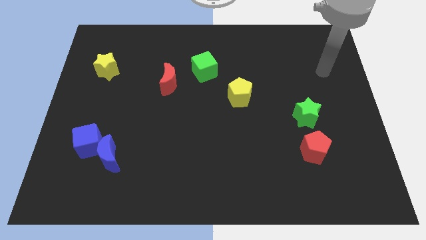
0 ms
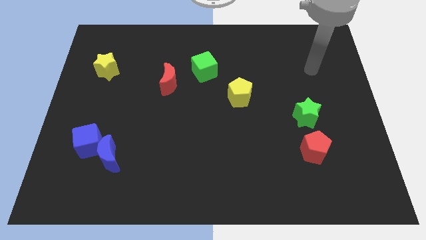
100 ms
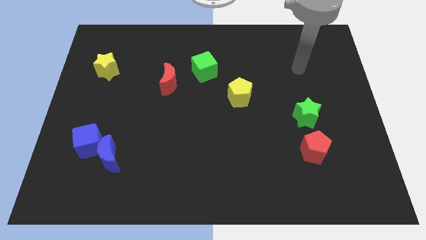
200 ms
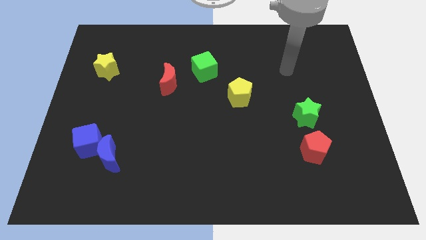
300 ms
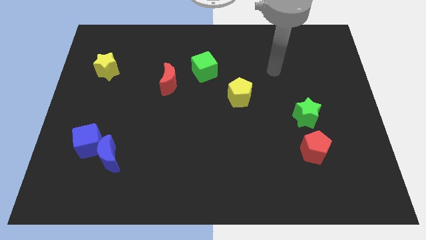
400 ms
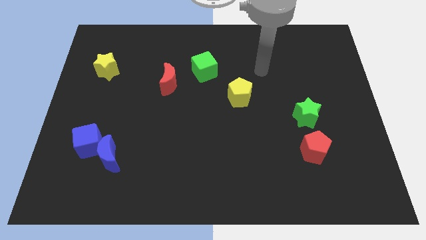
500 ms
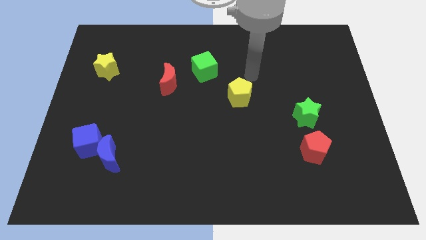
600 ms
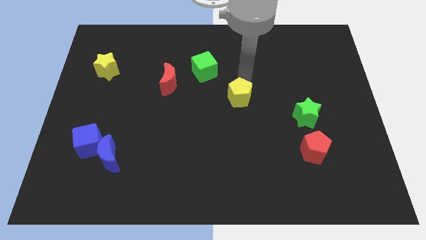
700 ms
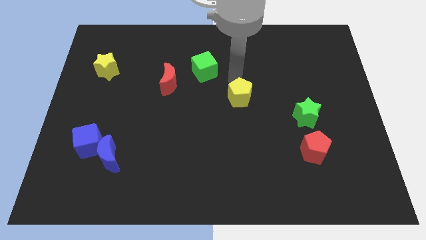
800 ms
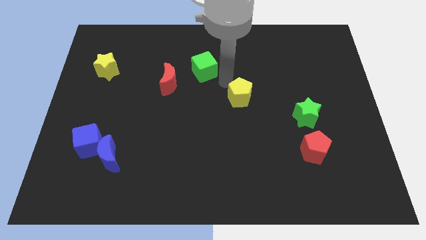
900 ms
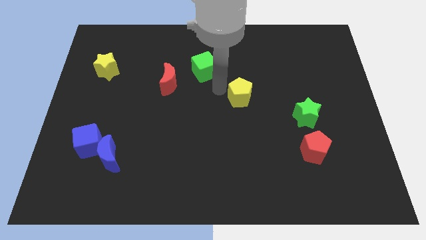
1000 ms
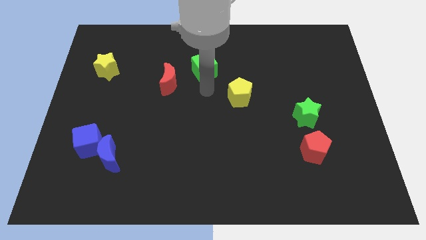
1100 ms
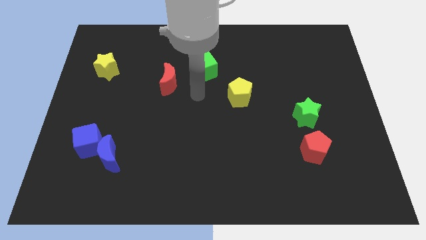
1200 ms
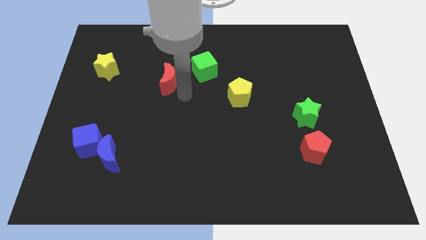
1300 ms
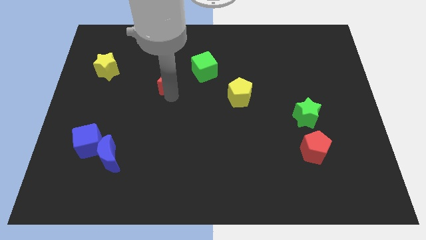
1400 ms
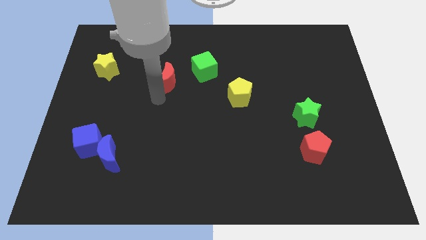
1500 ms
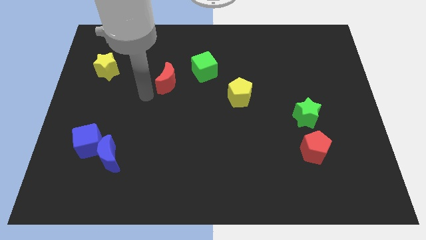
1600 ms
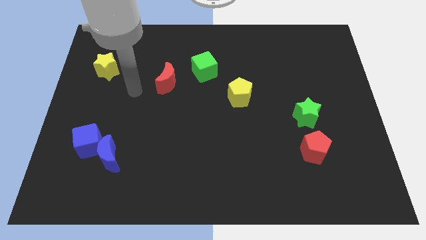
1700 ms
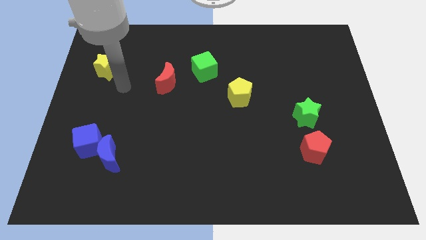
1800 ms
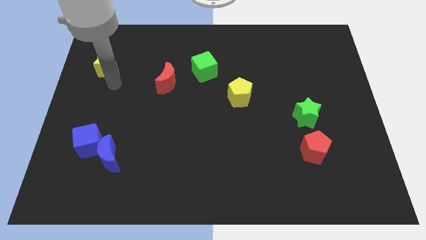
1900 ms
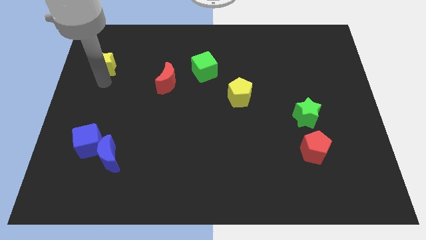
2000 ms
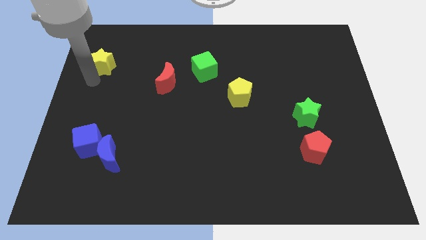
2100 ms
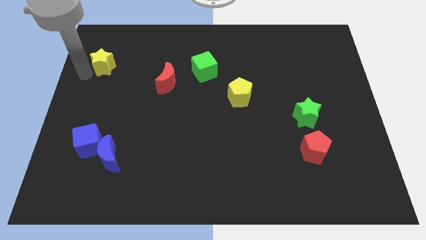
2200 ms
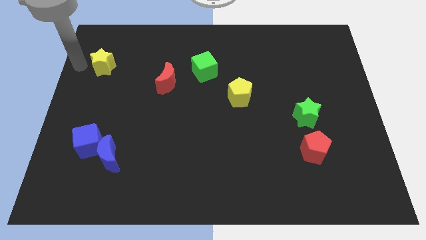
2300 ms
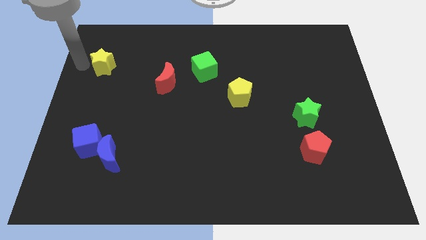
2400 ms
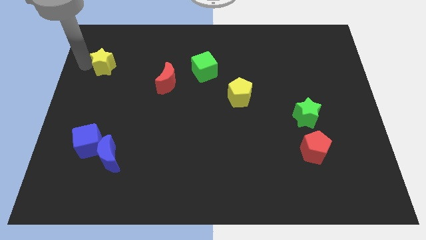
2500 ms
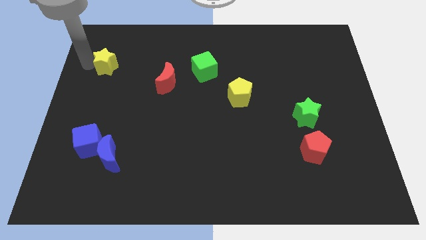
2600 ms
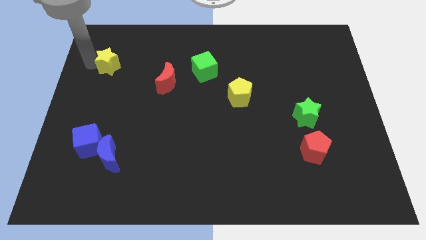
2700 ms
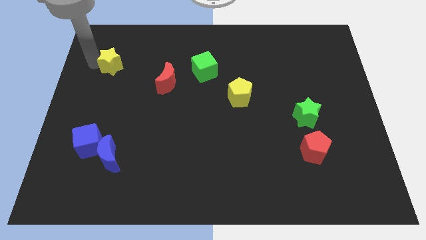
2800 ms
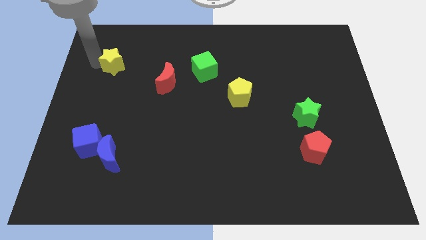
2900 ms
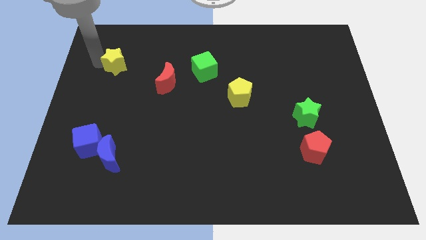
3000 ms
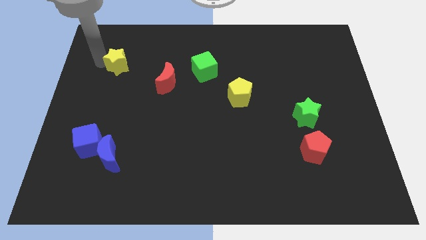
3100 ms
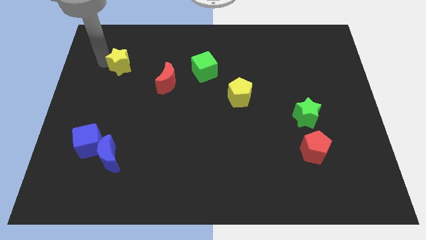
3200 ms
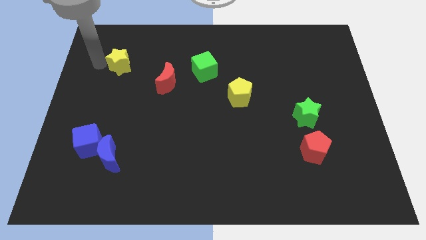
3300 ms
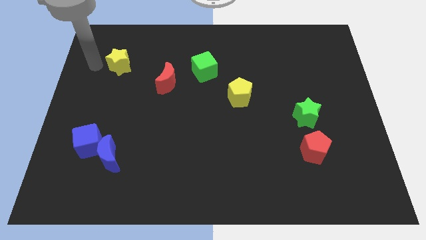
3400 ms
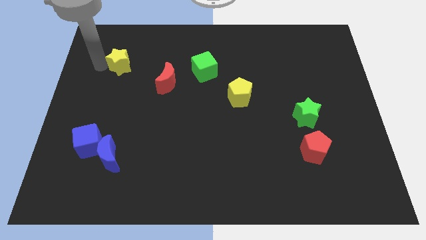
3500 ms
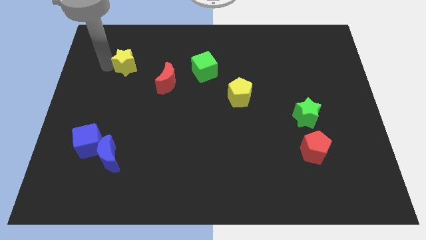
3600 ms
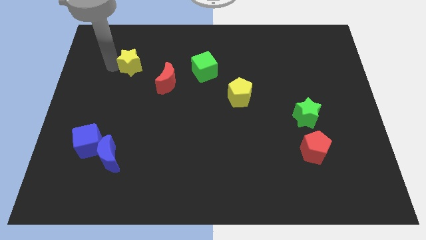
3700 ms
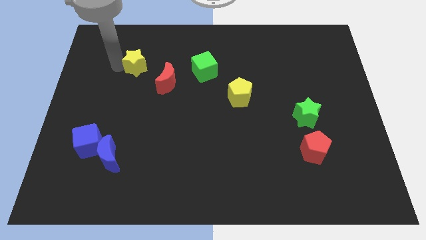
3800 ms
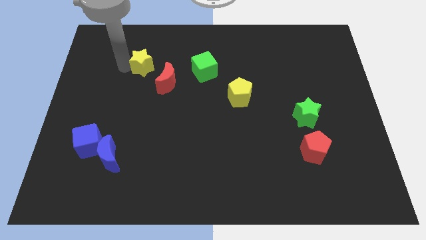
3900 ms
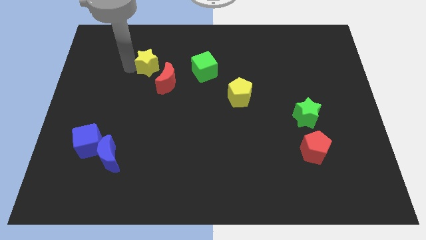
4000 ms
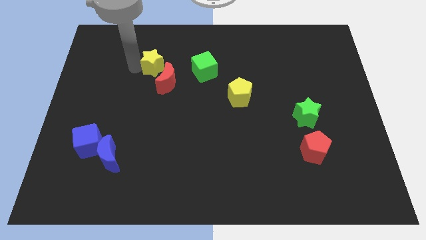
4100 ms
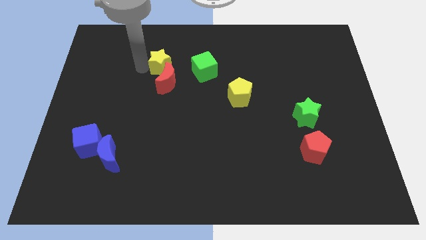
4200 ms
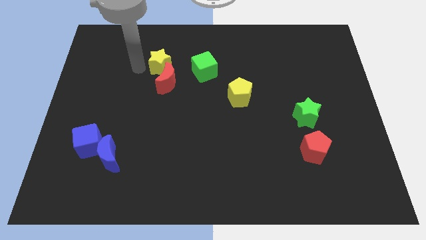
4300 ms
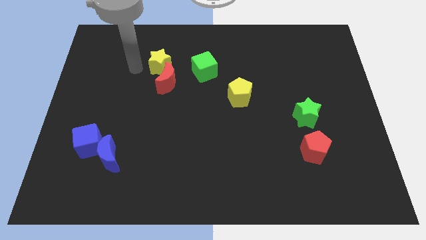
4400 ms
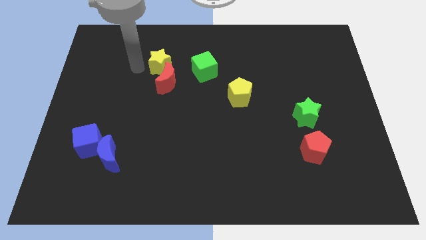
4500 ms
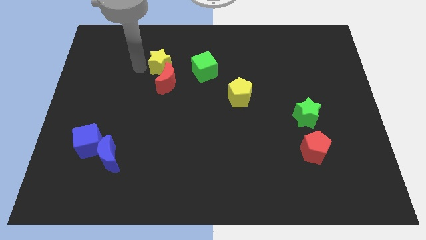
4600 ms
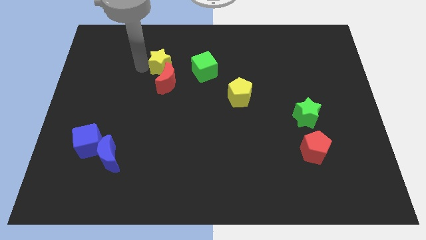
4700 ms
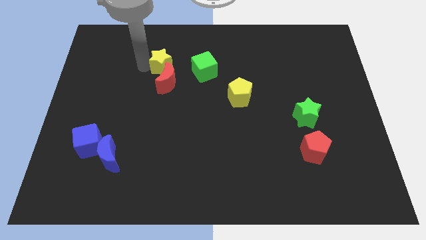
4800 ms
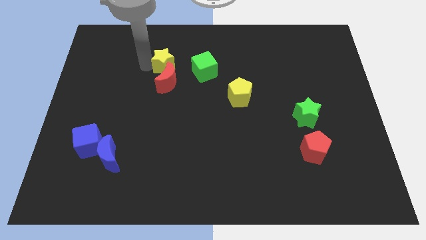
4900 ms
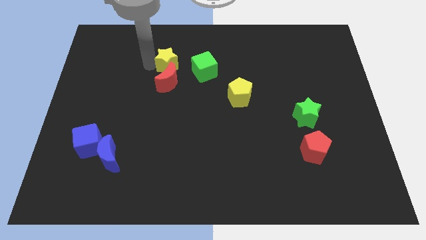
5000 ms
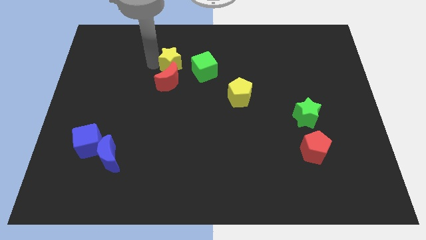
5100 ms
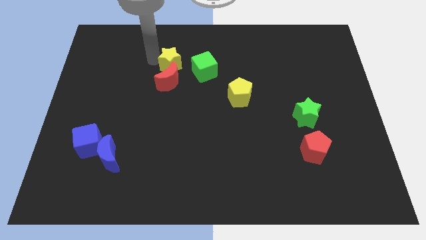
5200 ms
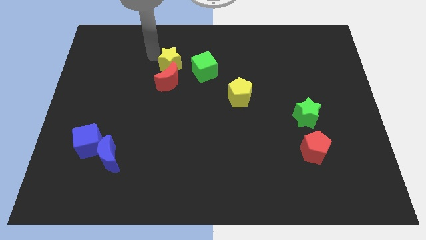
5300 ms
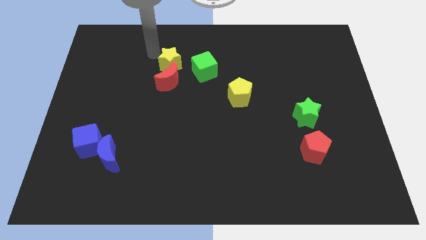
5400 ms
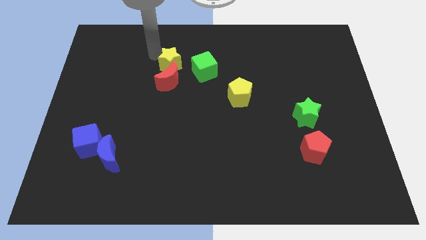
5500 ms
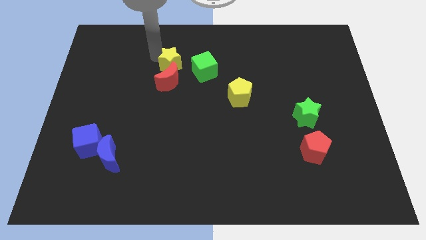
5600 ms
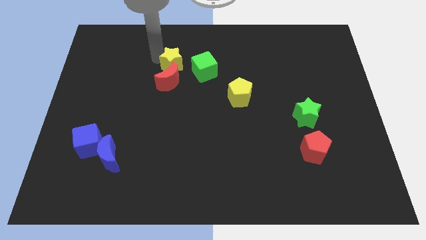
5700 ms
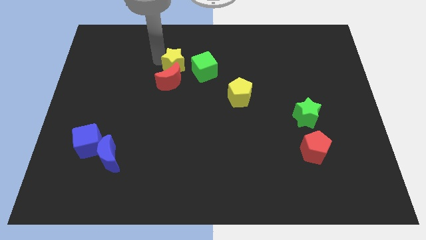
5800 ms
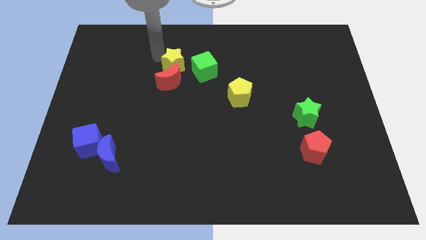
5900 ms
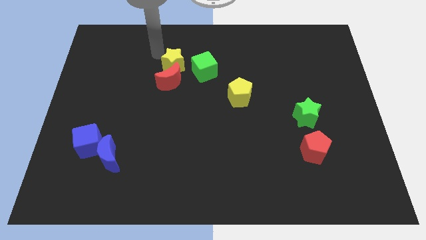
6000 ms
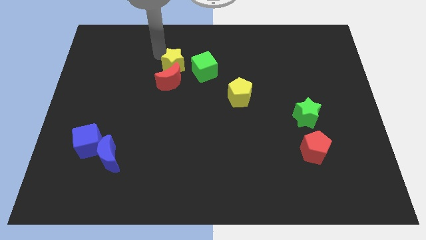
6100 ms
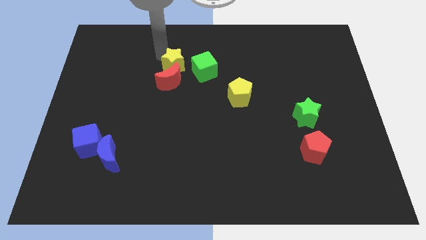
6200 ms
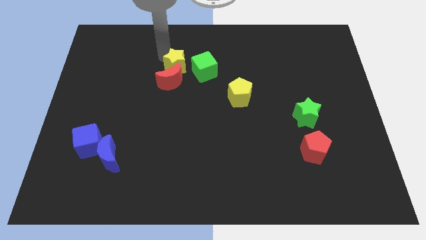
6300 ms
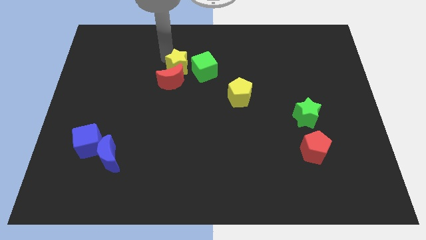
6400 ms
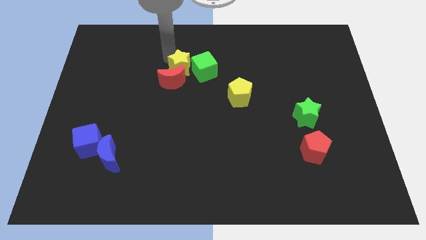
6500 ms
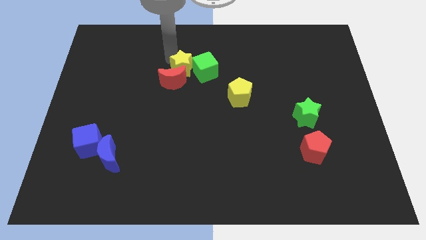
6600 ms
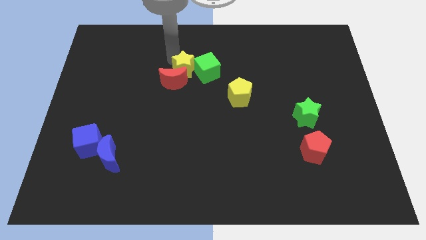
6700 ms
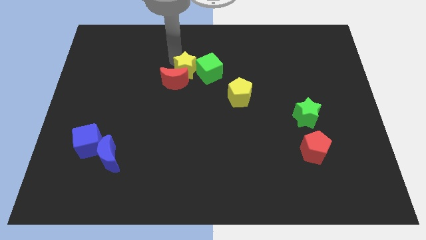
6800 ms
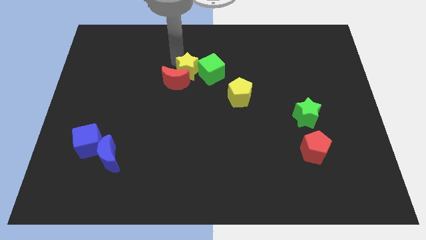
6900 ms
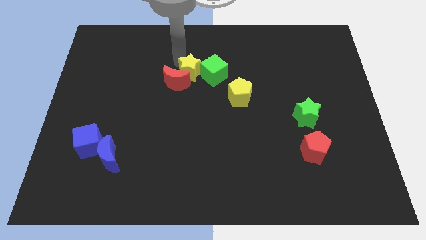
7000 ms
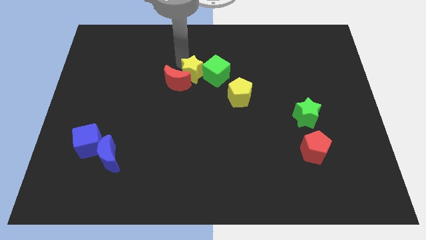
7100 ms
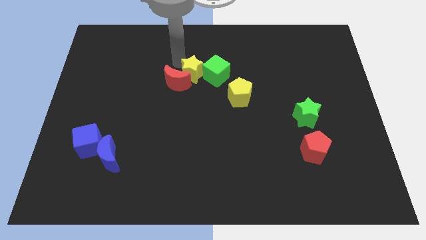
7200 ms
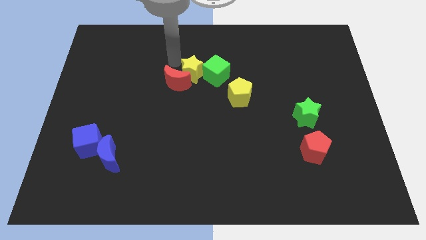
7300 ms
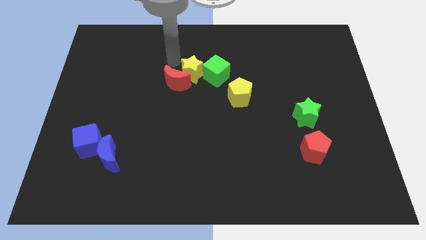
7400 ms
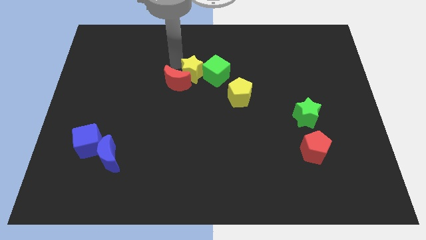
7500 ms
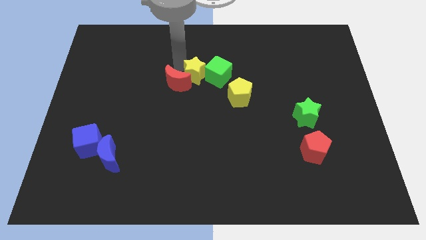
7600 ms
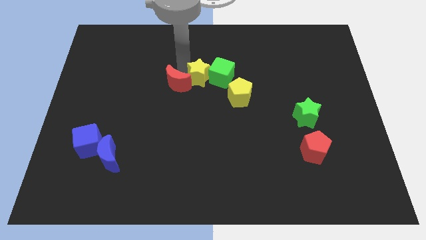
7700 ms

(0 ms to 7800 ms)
move the yellow star diagonally up and to the left of the yellow pentagon
